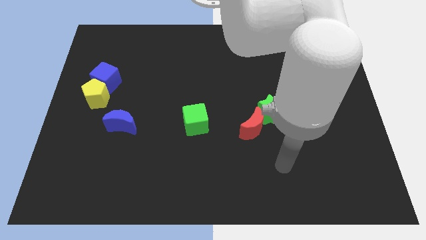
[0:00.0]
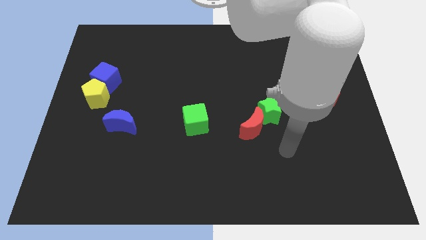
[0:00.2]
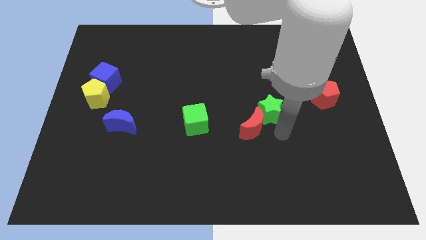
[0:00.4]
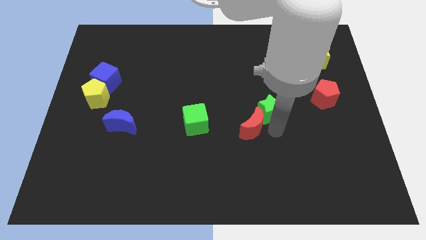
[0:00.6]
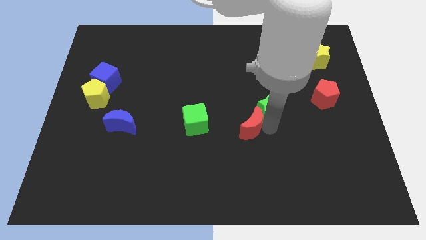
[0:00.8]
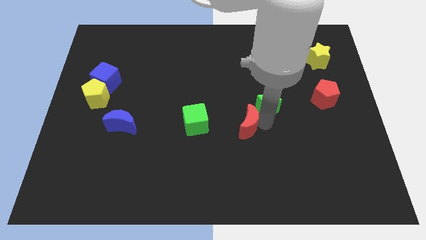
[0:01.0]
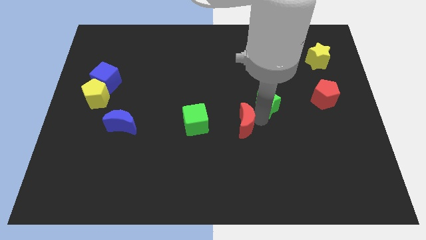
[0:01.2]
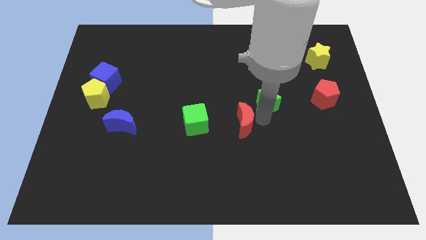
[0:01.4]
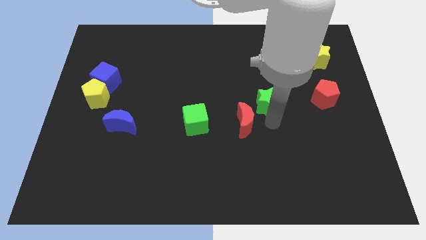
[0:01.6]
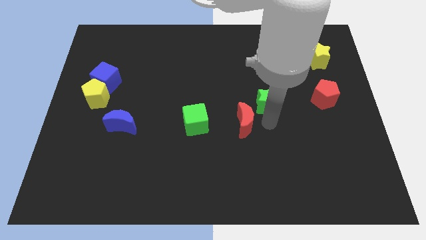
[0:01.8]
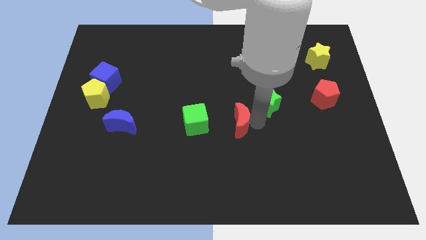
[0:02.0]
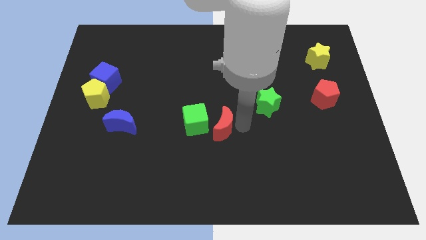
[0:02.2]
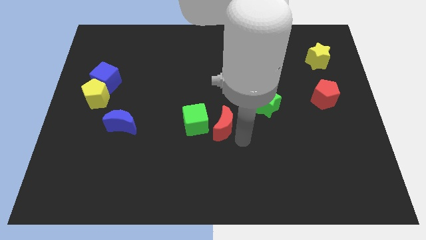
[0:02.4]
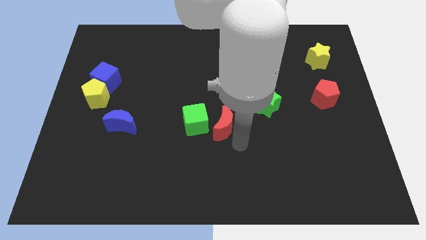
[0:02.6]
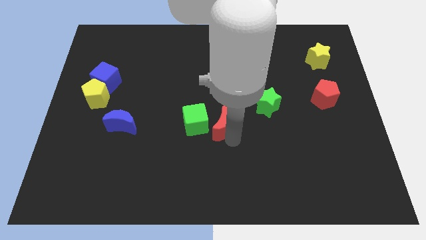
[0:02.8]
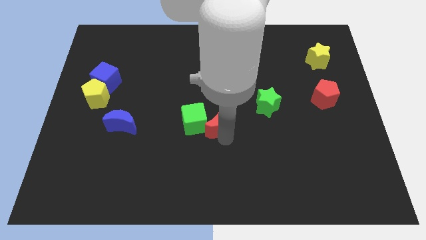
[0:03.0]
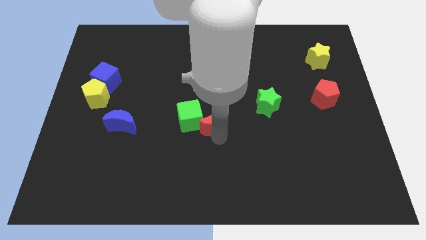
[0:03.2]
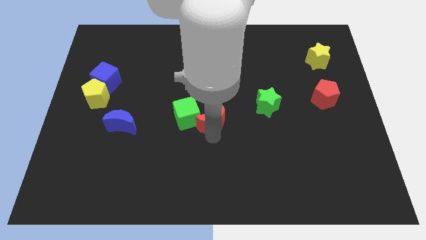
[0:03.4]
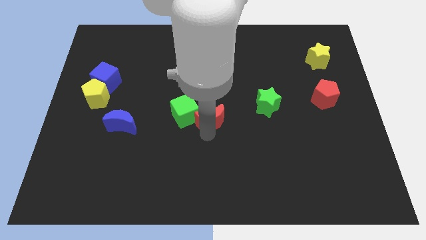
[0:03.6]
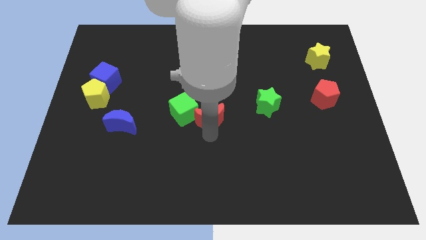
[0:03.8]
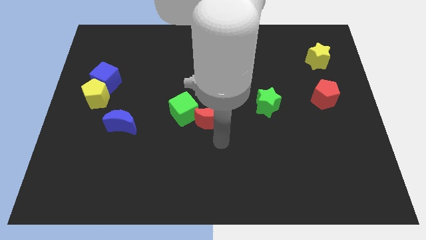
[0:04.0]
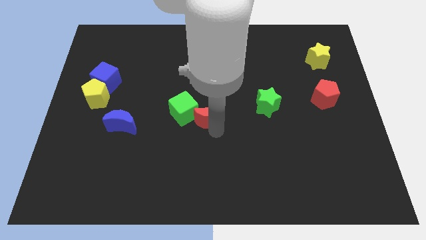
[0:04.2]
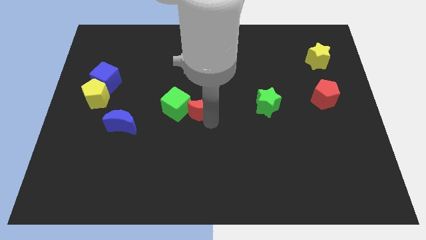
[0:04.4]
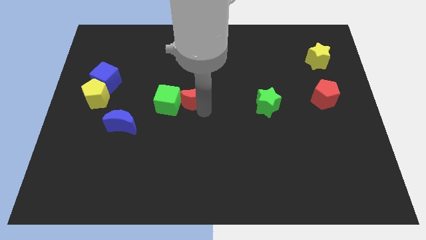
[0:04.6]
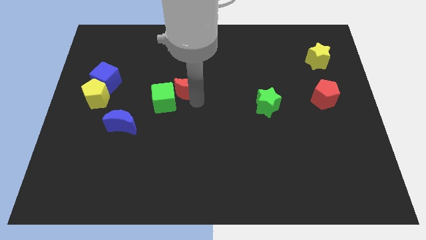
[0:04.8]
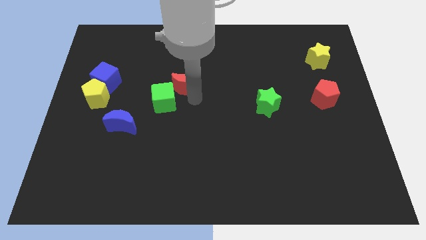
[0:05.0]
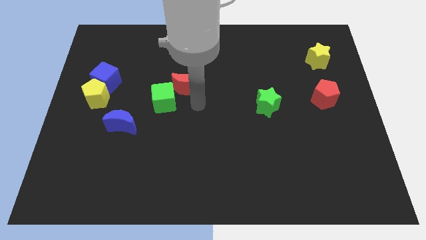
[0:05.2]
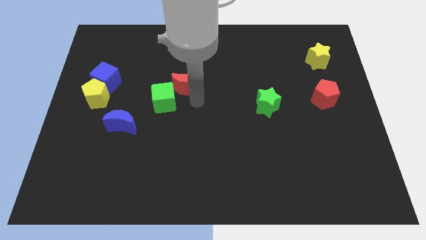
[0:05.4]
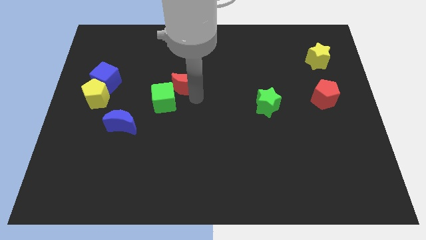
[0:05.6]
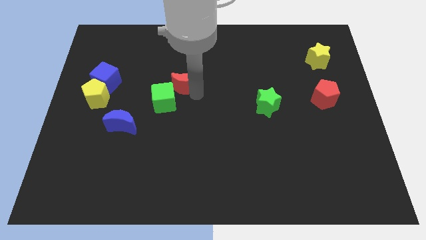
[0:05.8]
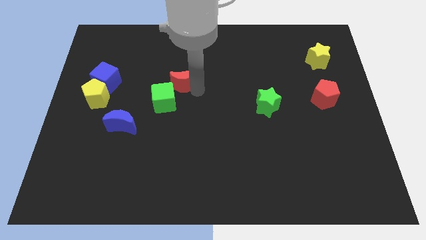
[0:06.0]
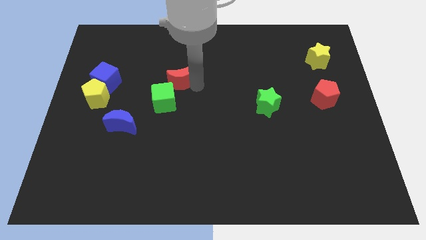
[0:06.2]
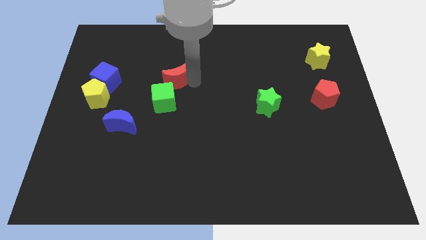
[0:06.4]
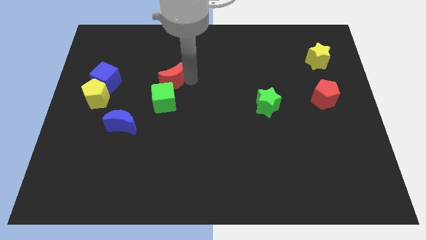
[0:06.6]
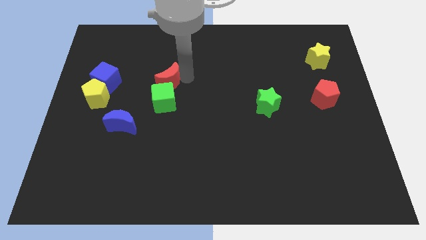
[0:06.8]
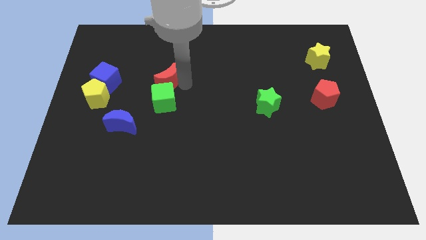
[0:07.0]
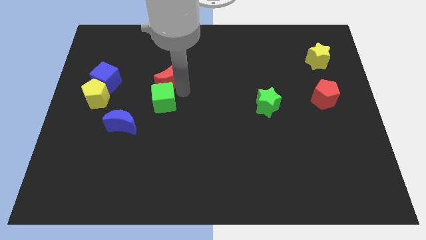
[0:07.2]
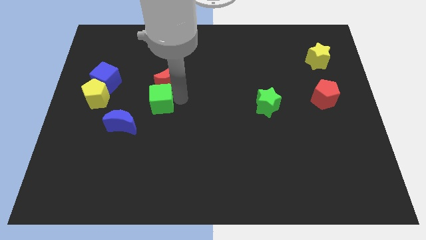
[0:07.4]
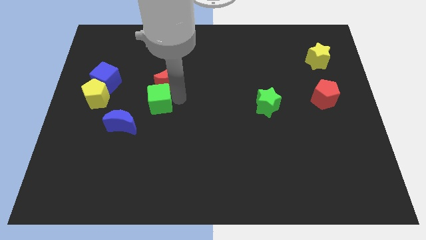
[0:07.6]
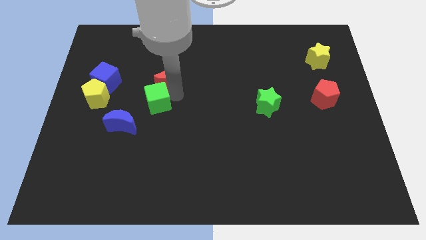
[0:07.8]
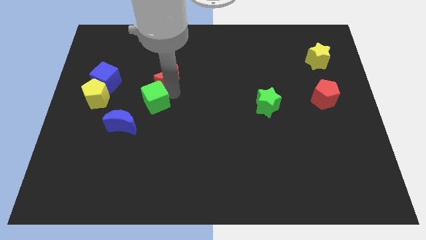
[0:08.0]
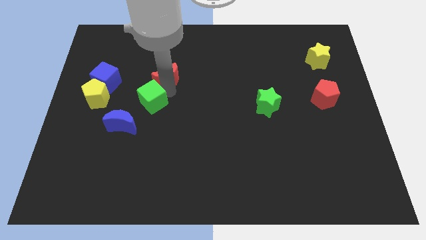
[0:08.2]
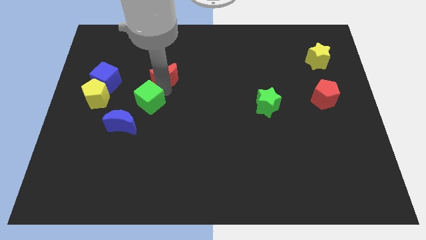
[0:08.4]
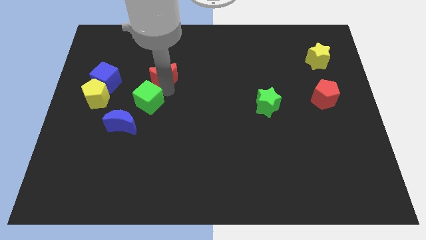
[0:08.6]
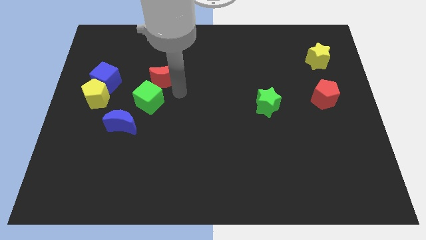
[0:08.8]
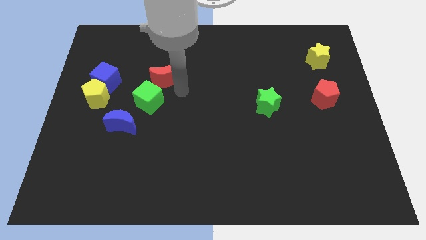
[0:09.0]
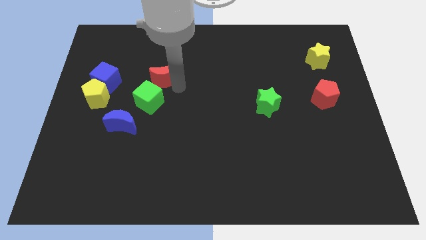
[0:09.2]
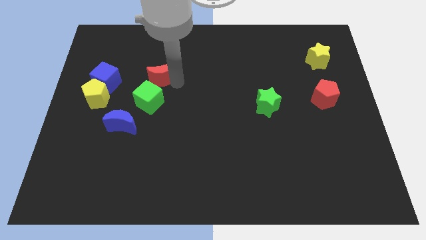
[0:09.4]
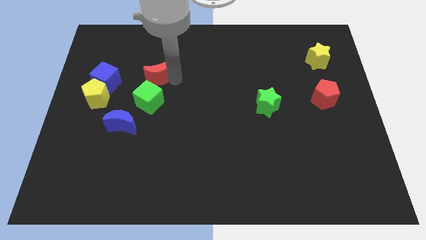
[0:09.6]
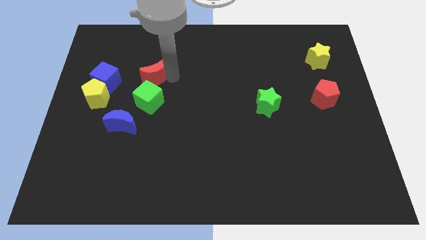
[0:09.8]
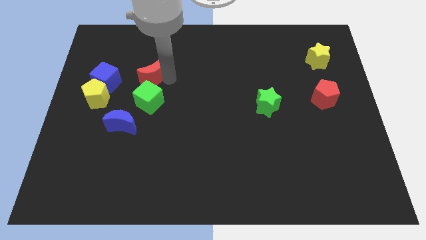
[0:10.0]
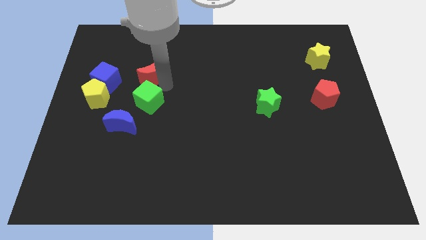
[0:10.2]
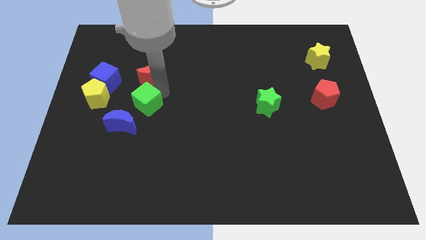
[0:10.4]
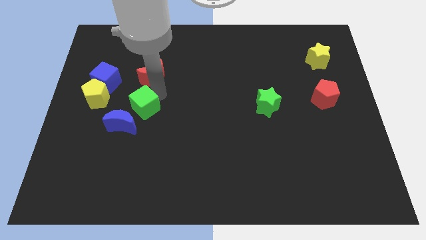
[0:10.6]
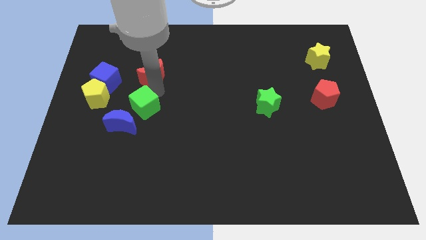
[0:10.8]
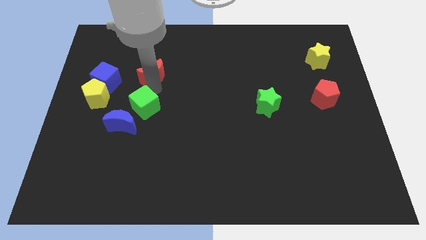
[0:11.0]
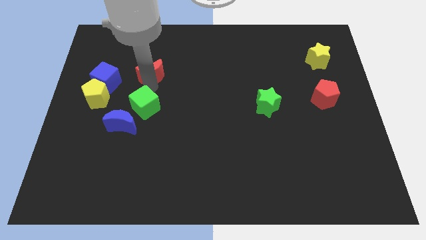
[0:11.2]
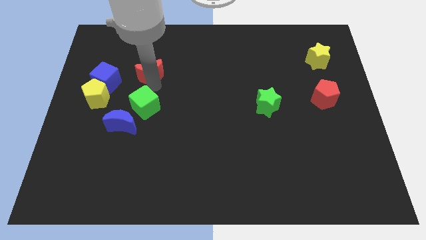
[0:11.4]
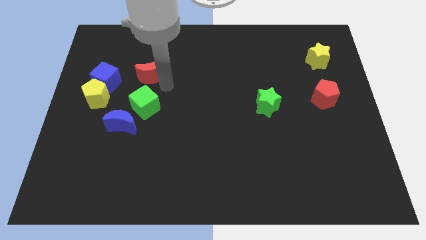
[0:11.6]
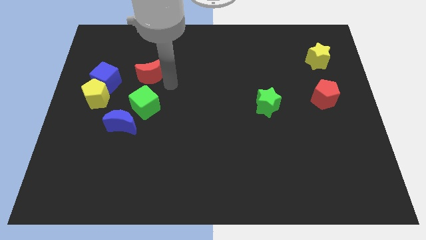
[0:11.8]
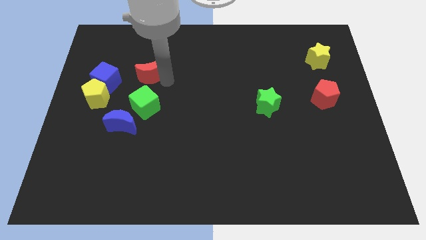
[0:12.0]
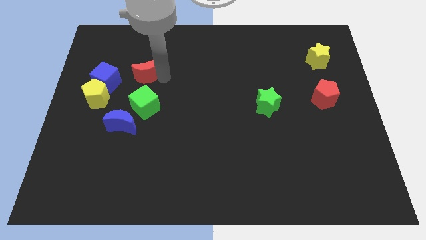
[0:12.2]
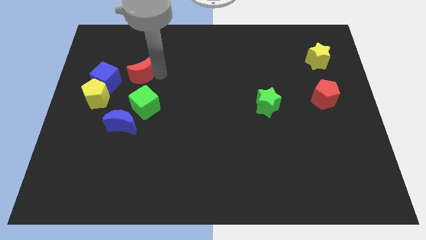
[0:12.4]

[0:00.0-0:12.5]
push the red moon to the top right side of the blue cube
